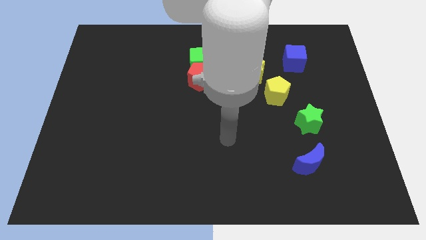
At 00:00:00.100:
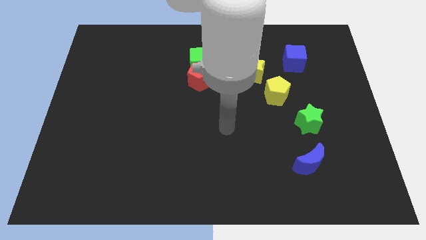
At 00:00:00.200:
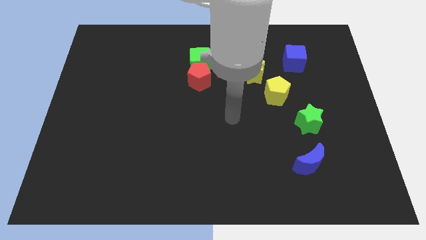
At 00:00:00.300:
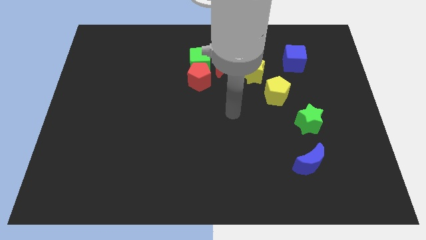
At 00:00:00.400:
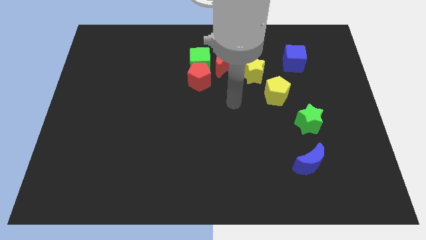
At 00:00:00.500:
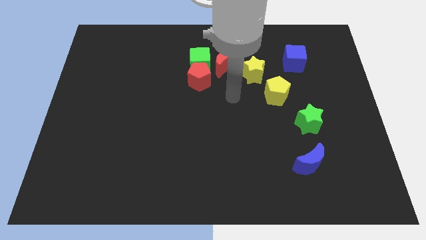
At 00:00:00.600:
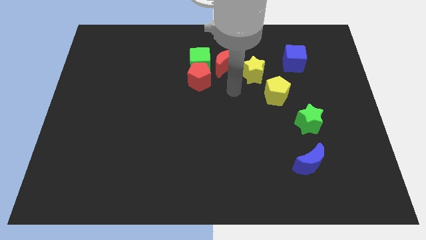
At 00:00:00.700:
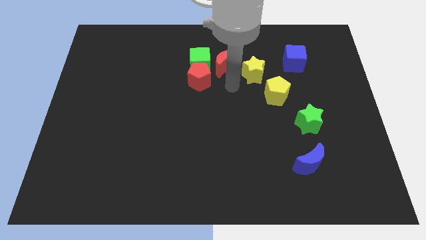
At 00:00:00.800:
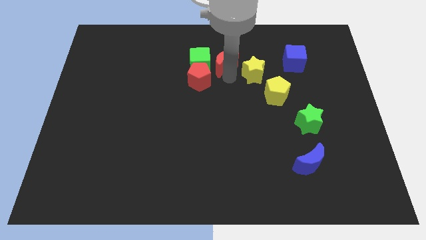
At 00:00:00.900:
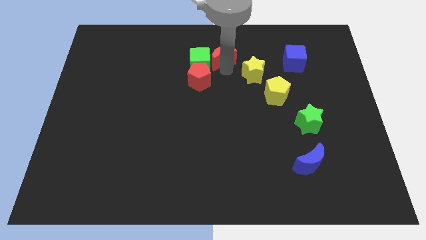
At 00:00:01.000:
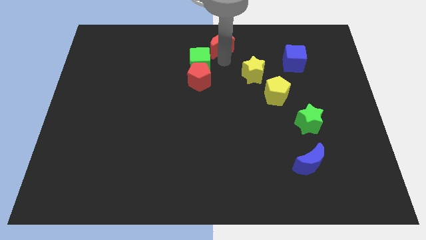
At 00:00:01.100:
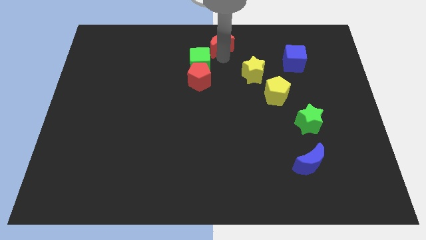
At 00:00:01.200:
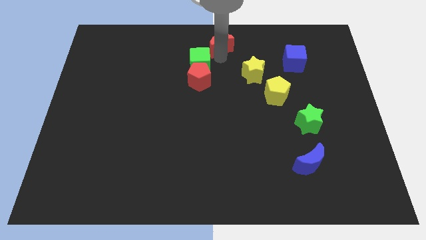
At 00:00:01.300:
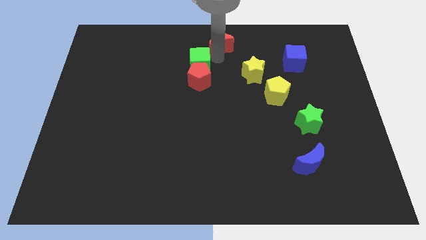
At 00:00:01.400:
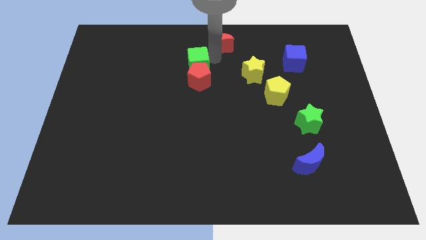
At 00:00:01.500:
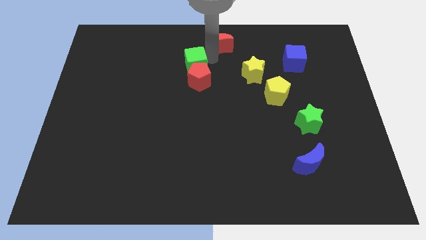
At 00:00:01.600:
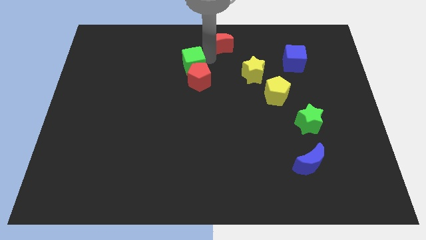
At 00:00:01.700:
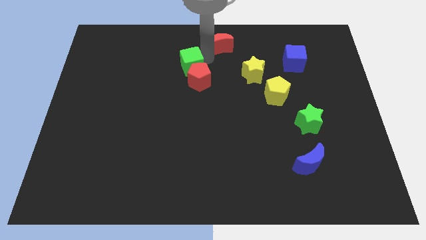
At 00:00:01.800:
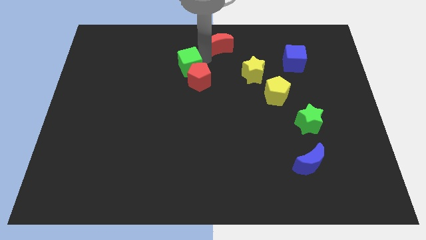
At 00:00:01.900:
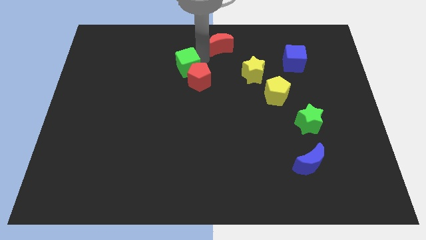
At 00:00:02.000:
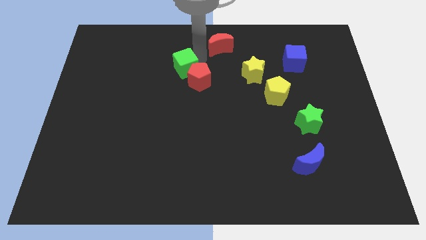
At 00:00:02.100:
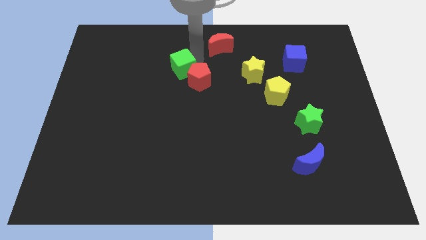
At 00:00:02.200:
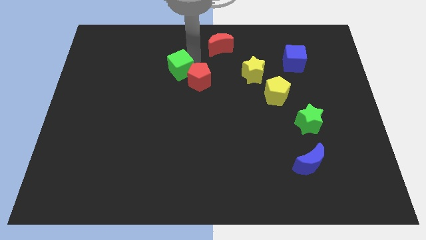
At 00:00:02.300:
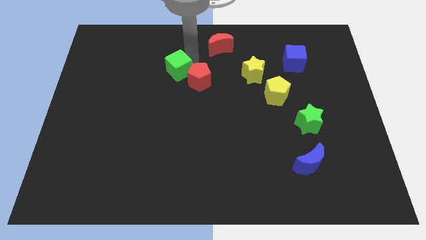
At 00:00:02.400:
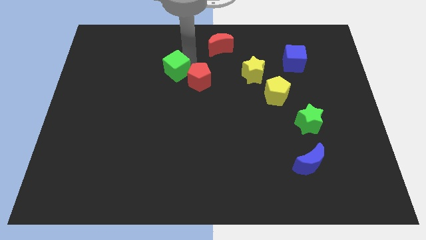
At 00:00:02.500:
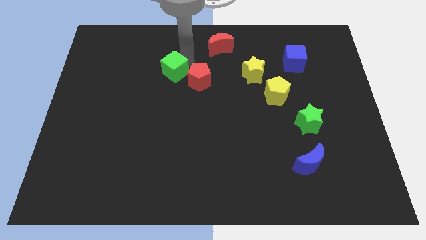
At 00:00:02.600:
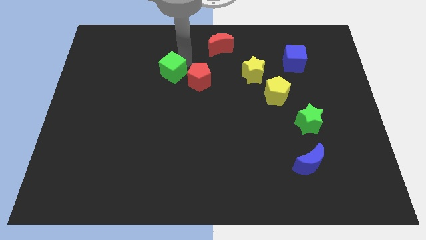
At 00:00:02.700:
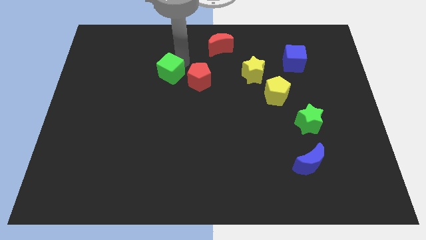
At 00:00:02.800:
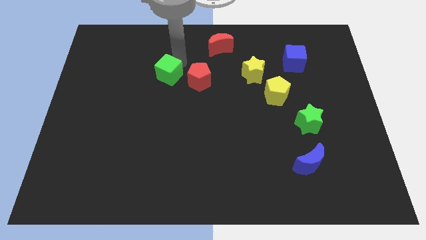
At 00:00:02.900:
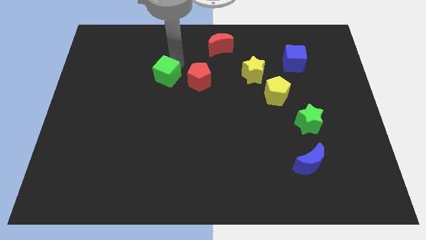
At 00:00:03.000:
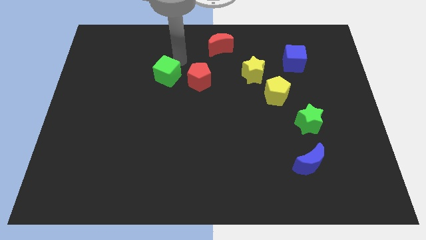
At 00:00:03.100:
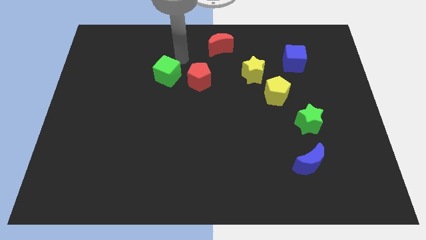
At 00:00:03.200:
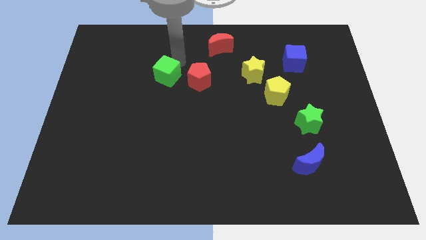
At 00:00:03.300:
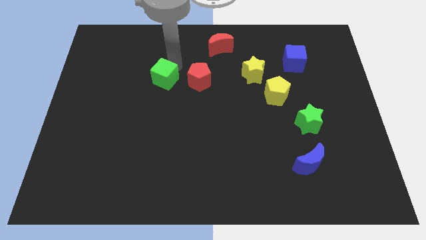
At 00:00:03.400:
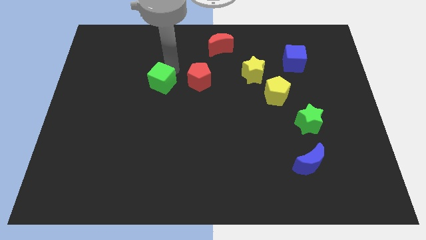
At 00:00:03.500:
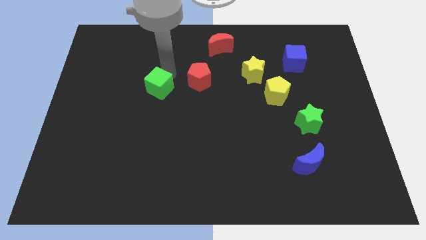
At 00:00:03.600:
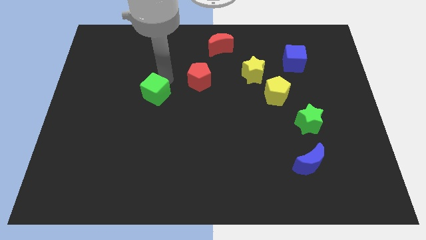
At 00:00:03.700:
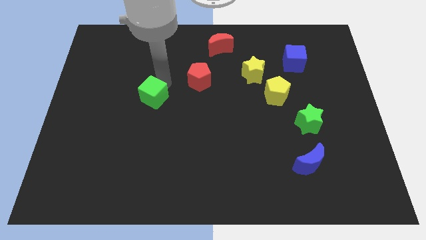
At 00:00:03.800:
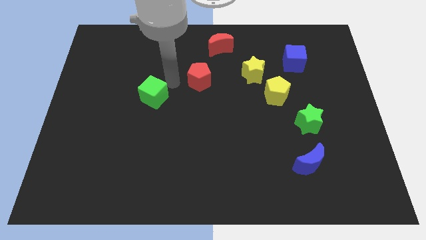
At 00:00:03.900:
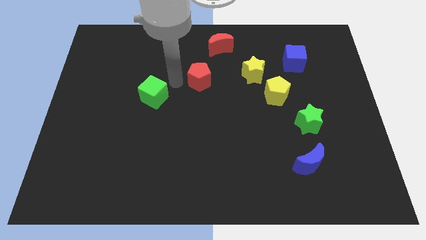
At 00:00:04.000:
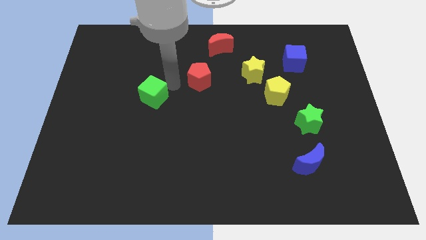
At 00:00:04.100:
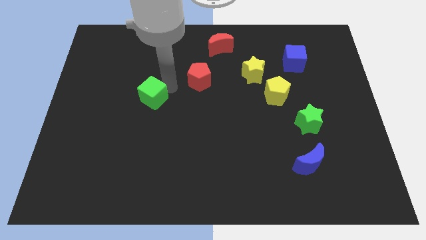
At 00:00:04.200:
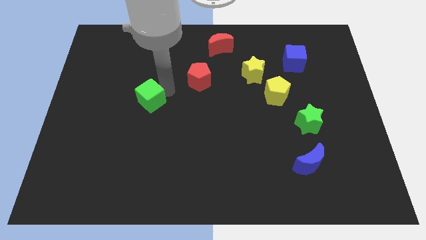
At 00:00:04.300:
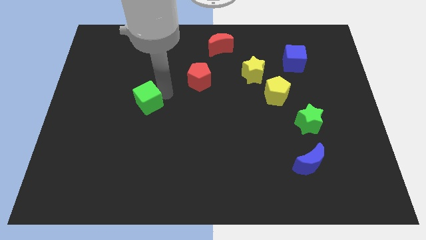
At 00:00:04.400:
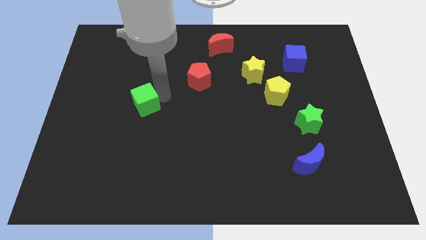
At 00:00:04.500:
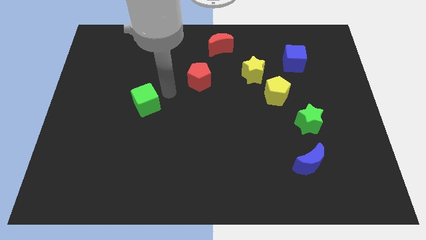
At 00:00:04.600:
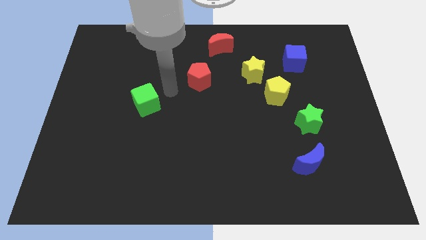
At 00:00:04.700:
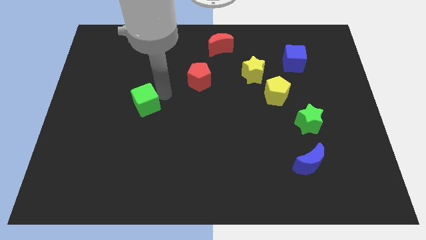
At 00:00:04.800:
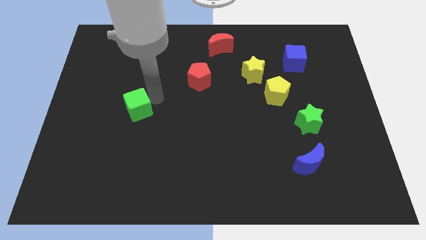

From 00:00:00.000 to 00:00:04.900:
push the green cube down and left

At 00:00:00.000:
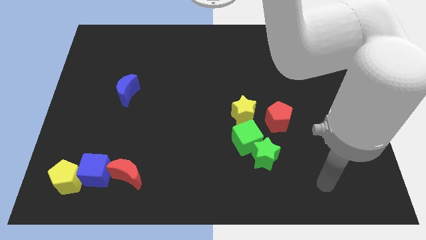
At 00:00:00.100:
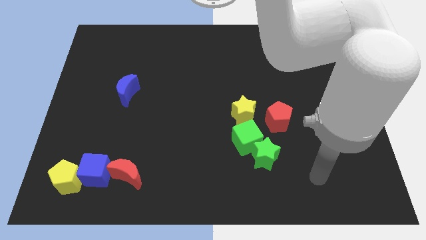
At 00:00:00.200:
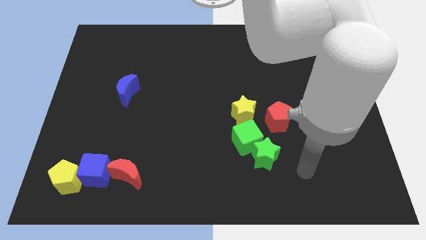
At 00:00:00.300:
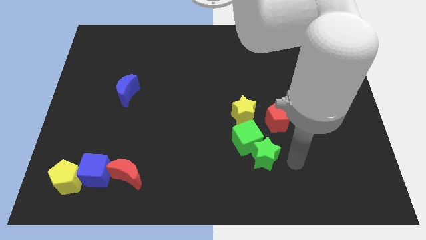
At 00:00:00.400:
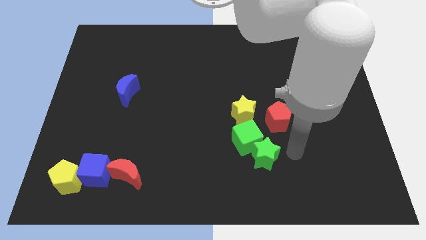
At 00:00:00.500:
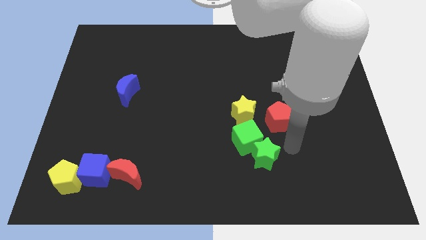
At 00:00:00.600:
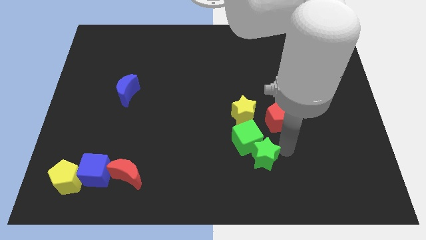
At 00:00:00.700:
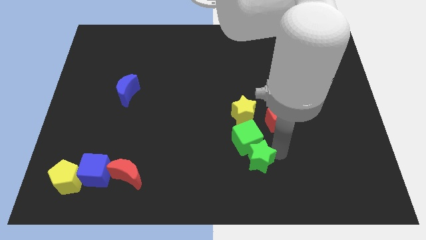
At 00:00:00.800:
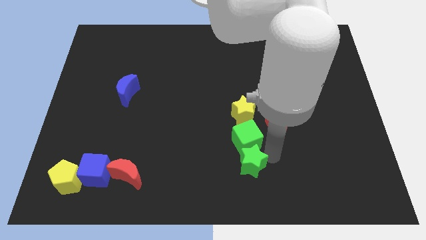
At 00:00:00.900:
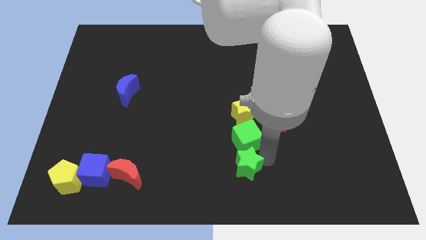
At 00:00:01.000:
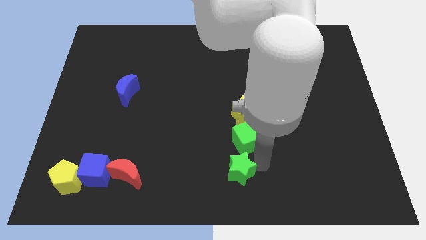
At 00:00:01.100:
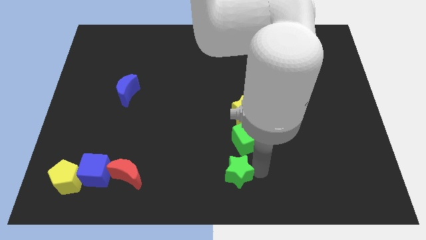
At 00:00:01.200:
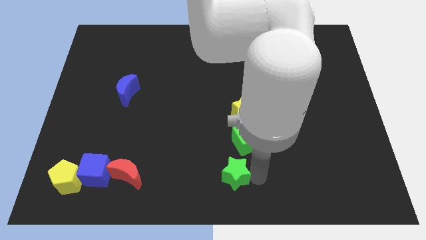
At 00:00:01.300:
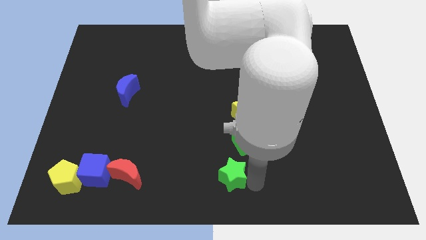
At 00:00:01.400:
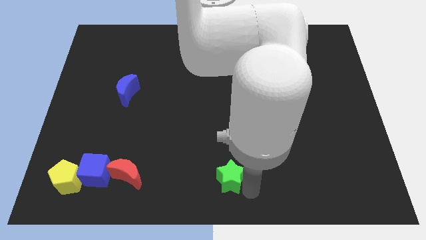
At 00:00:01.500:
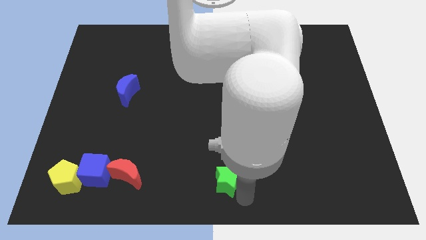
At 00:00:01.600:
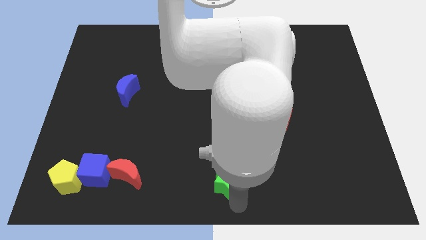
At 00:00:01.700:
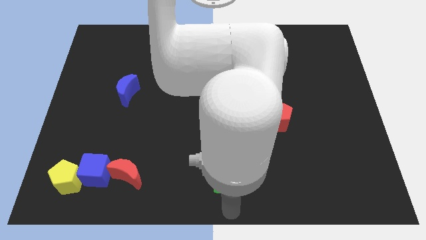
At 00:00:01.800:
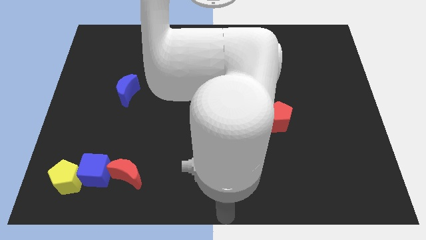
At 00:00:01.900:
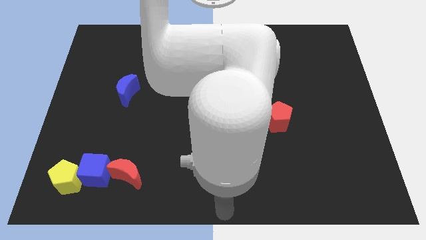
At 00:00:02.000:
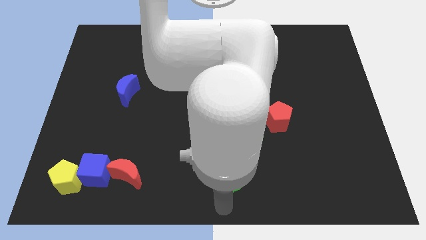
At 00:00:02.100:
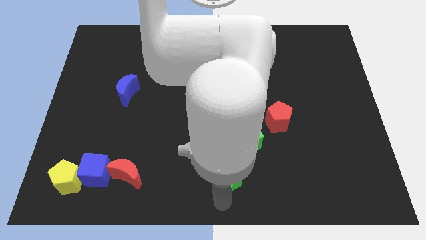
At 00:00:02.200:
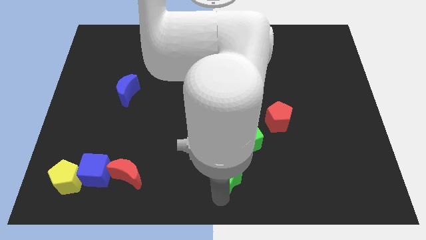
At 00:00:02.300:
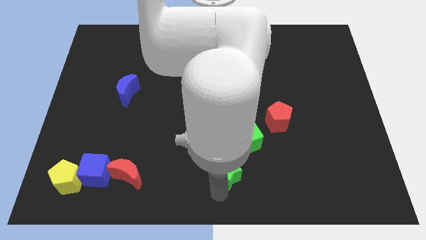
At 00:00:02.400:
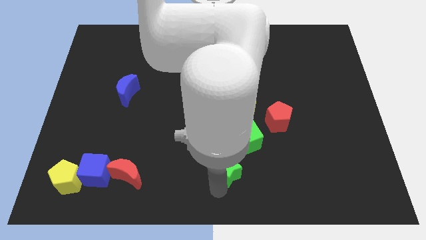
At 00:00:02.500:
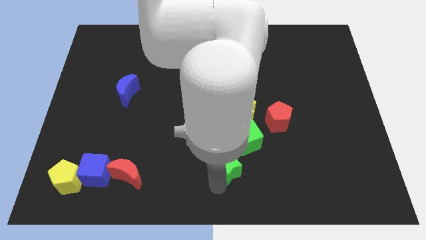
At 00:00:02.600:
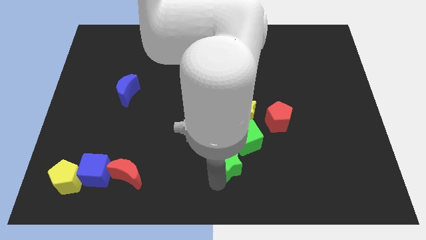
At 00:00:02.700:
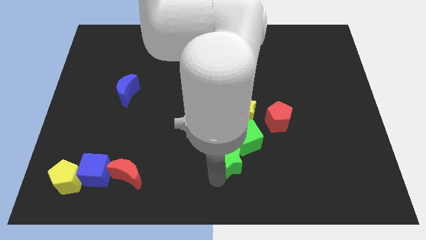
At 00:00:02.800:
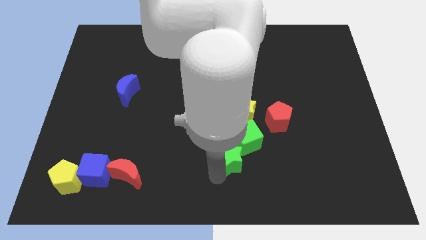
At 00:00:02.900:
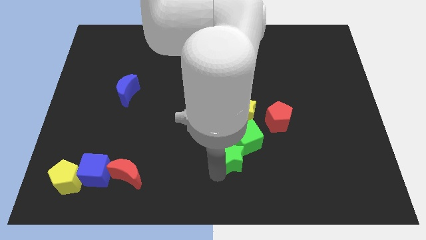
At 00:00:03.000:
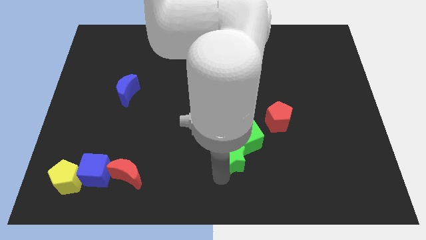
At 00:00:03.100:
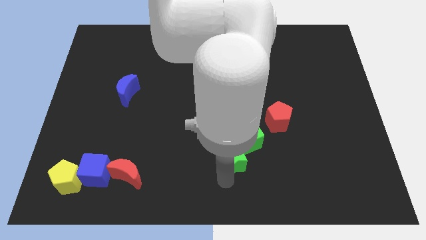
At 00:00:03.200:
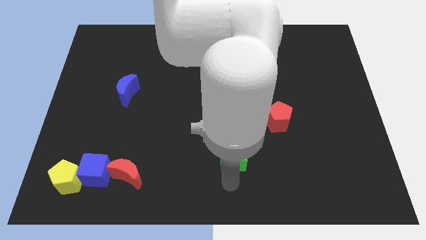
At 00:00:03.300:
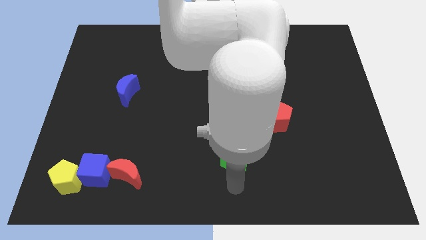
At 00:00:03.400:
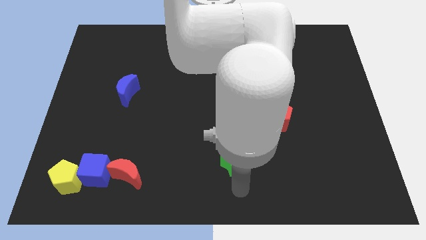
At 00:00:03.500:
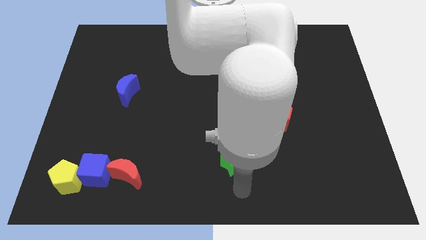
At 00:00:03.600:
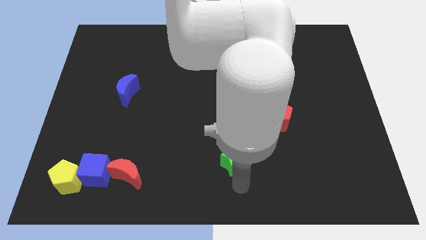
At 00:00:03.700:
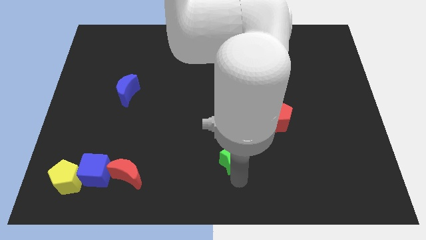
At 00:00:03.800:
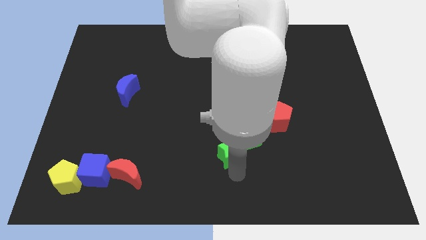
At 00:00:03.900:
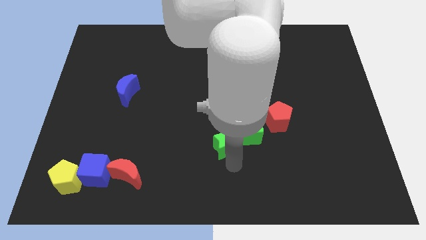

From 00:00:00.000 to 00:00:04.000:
push the green star up and then left slightly
